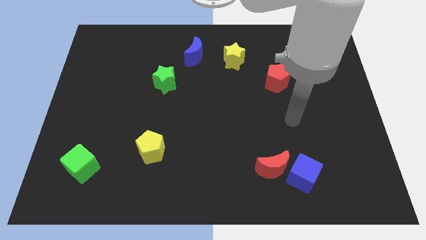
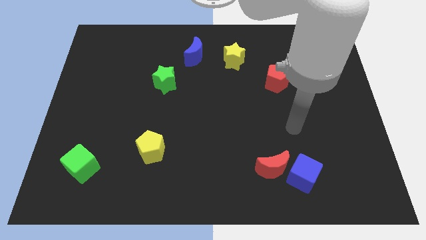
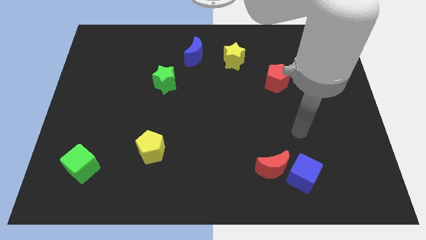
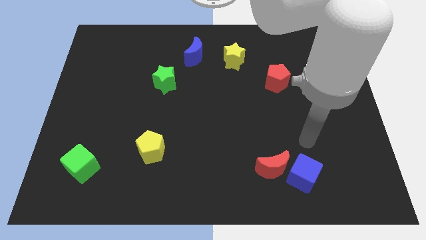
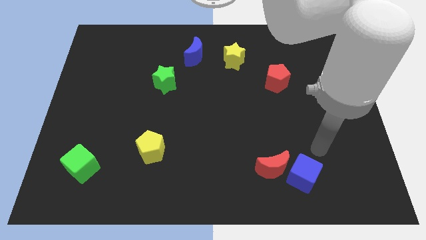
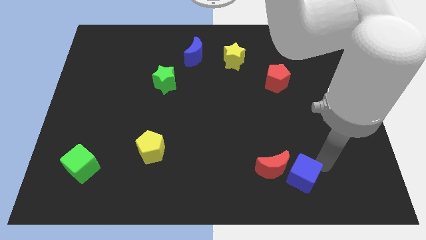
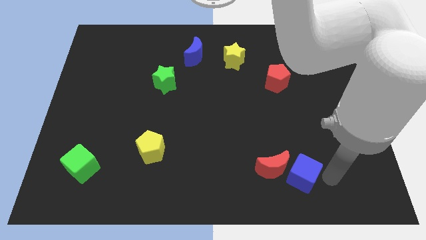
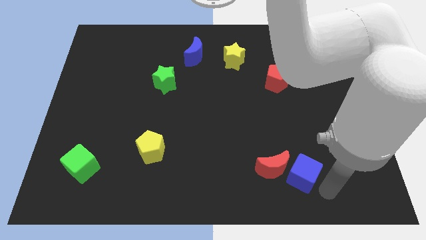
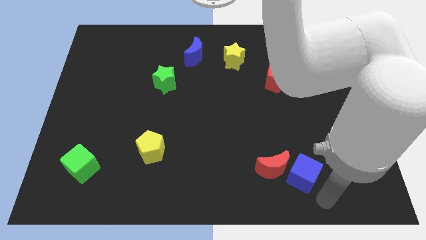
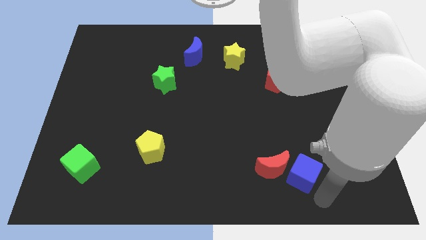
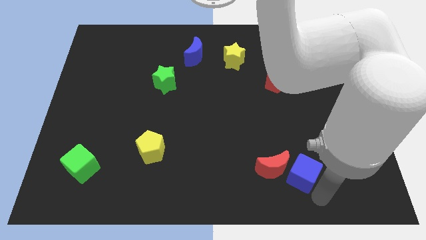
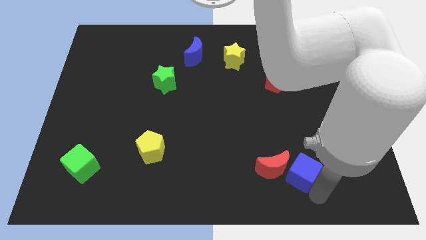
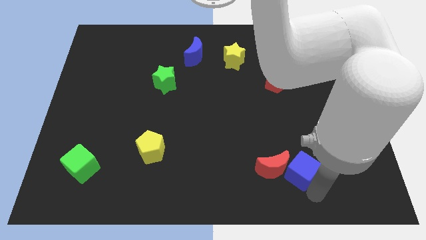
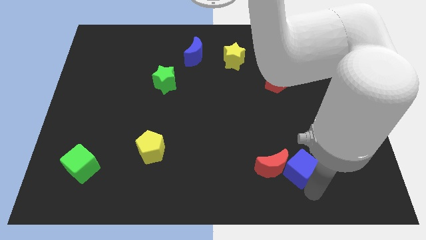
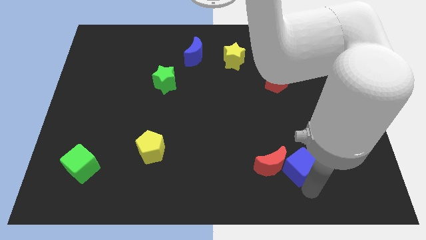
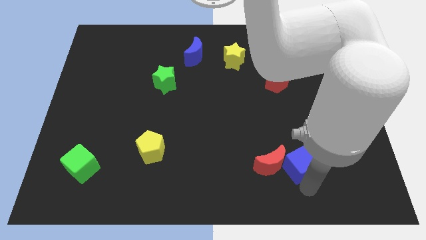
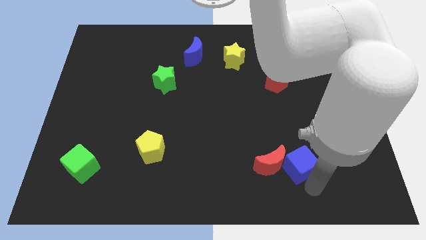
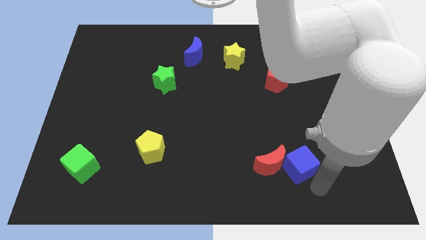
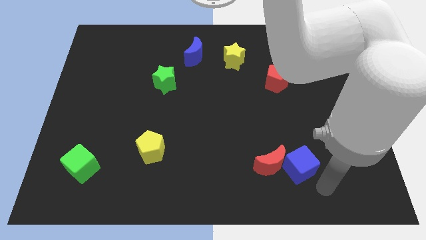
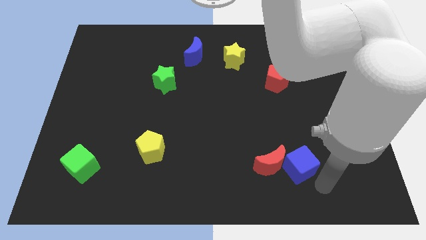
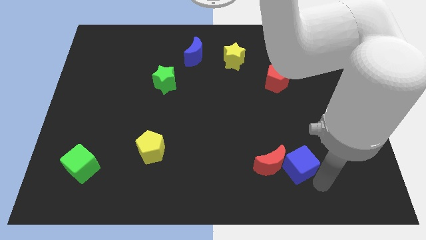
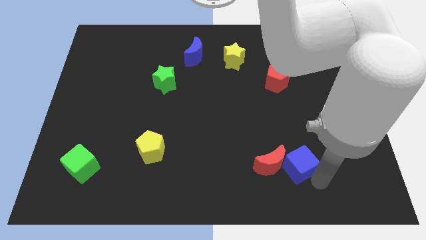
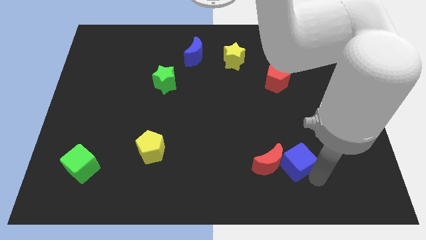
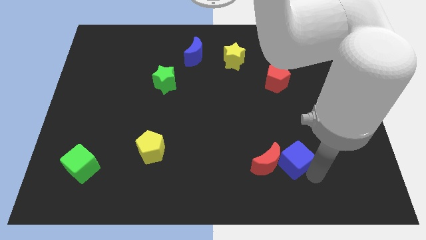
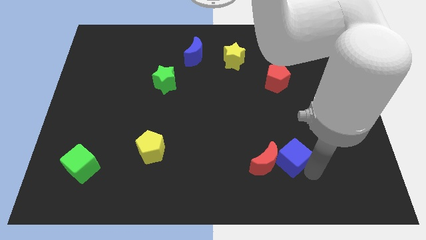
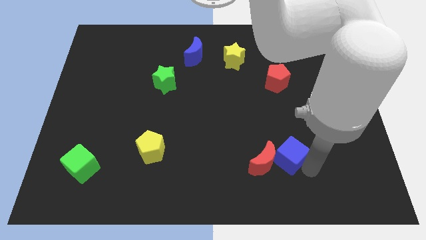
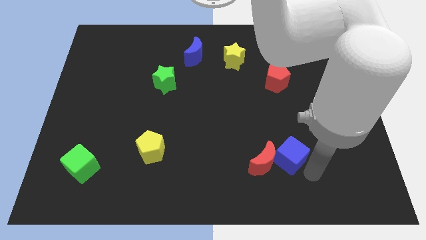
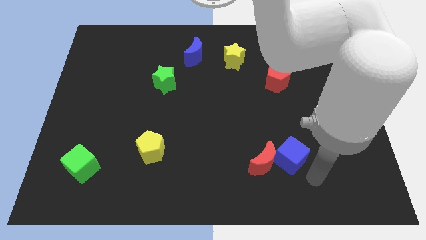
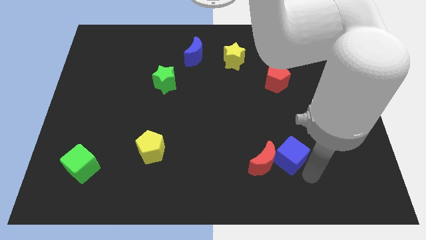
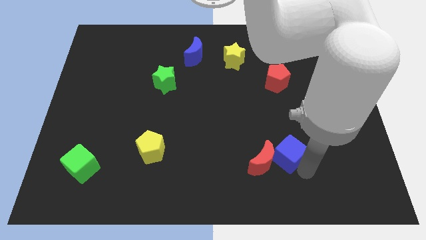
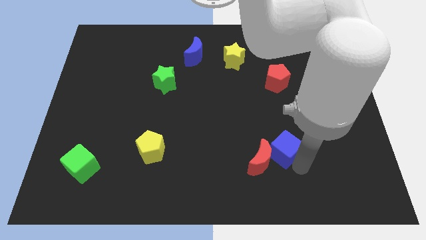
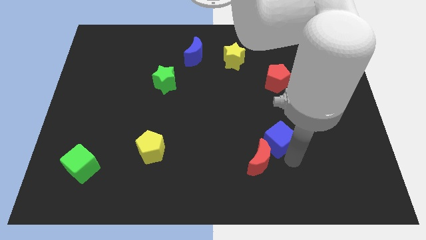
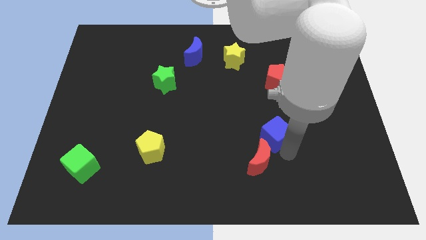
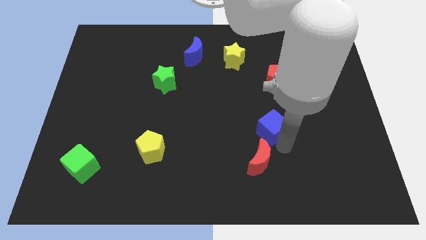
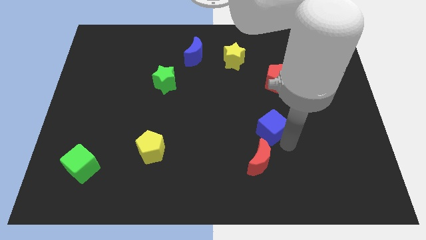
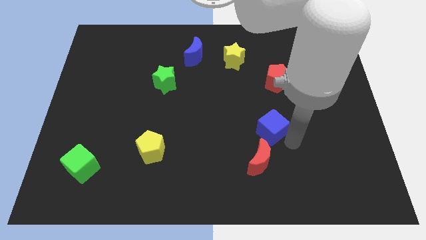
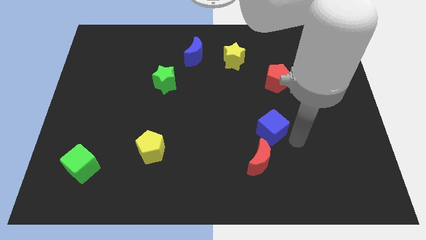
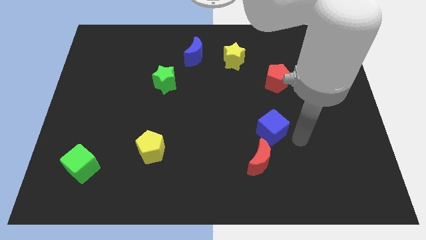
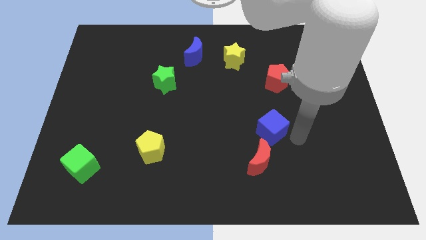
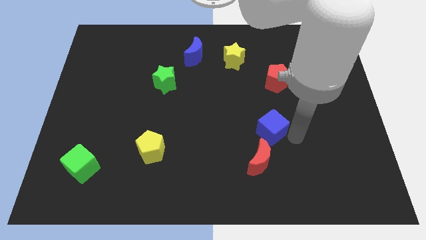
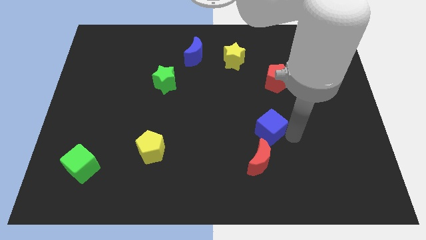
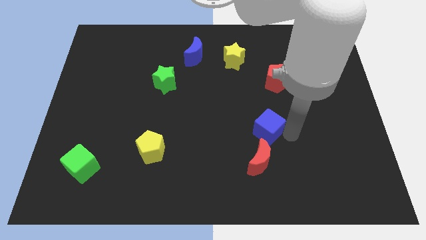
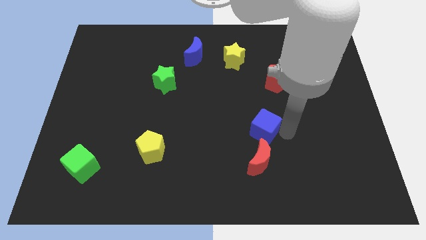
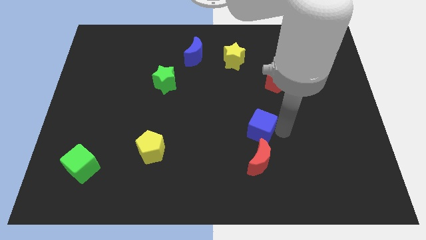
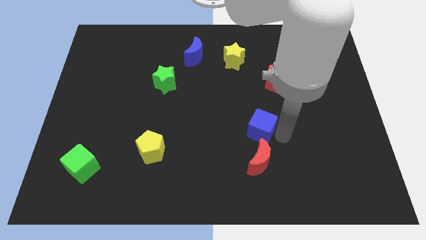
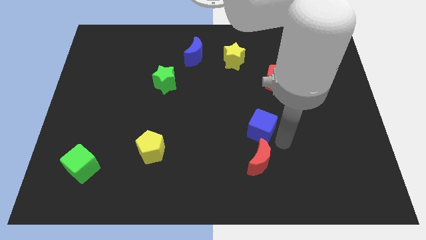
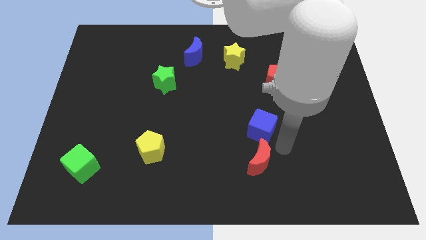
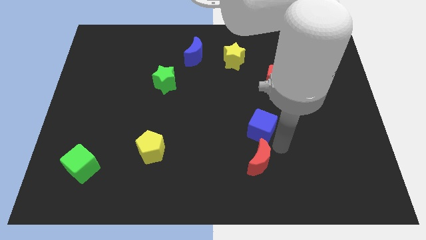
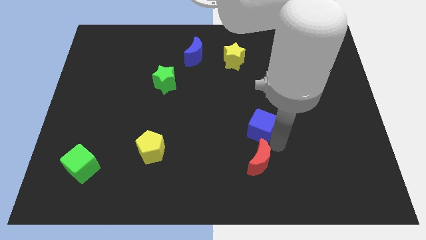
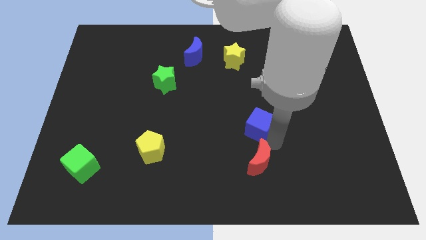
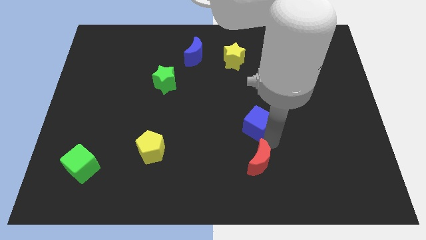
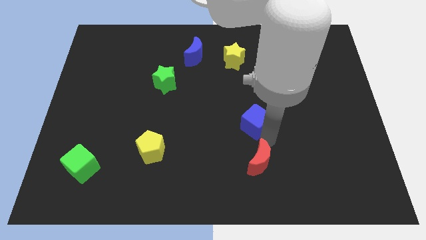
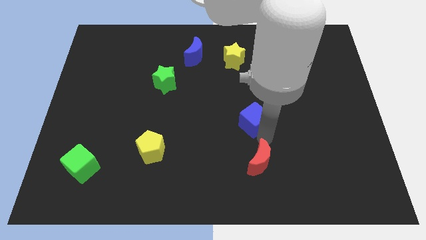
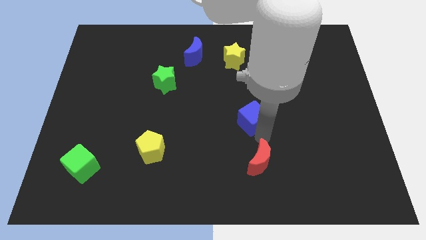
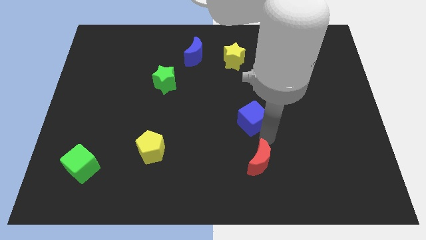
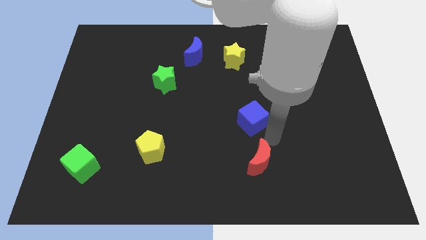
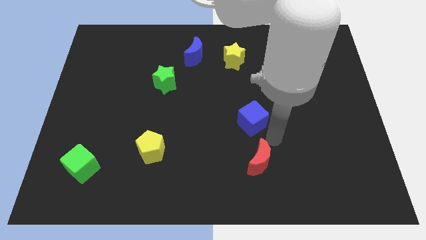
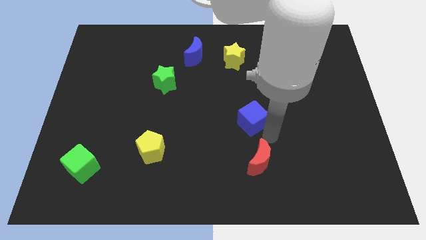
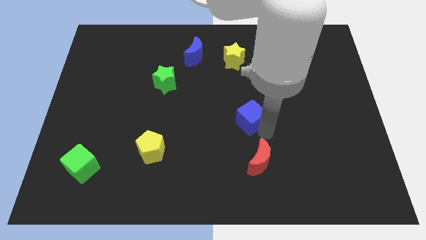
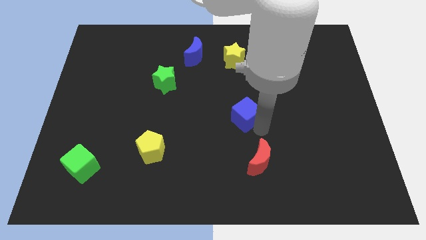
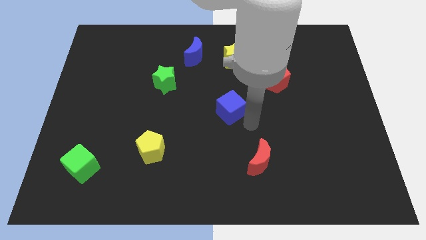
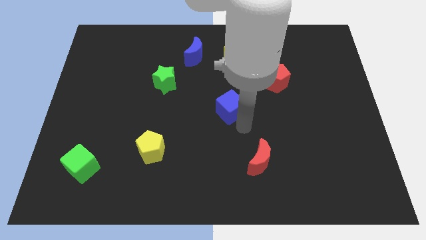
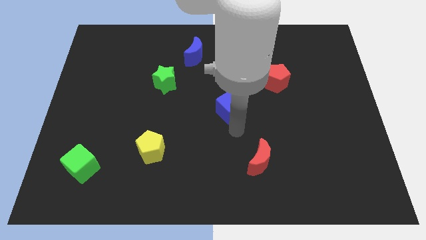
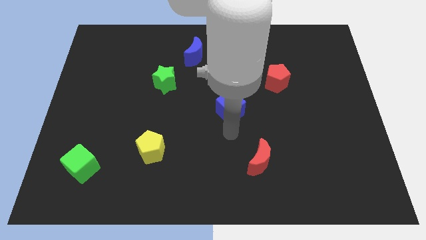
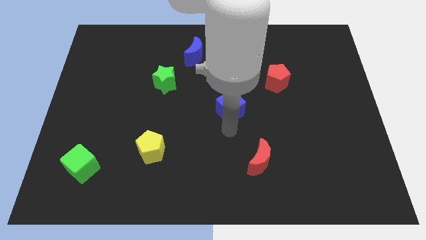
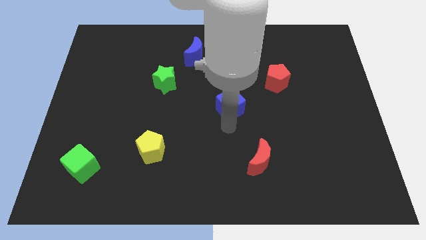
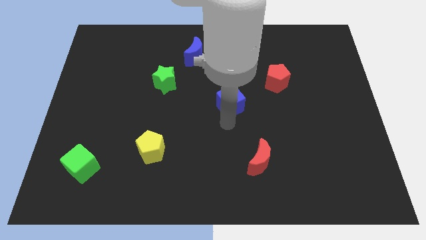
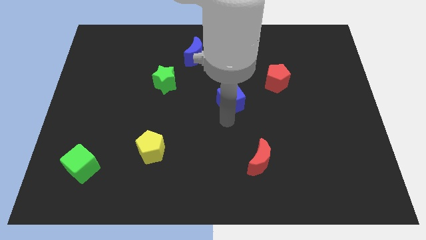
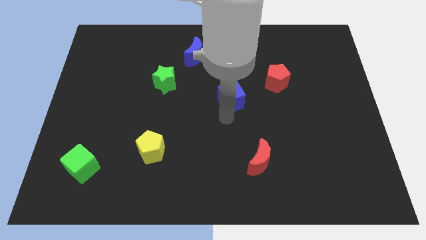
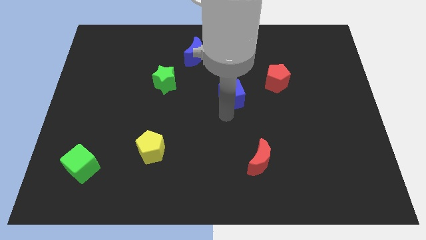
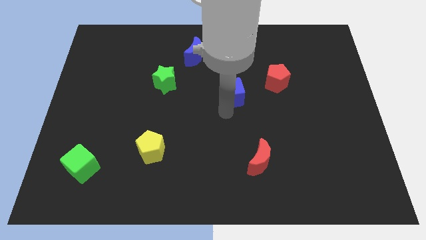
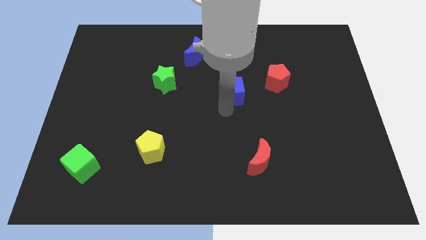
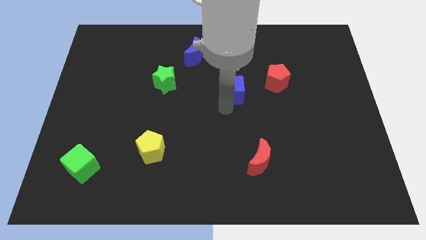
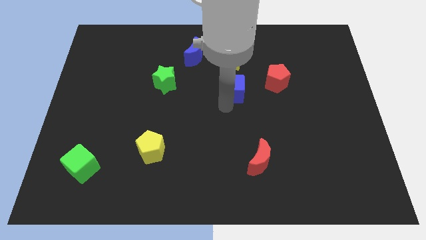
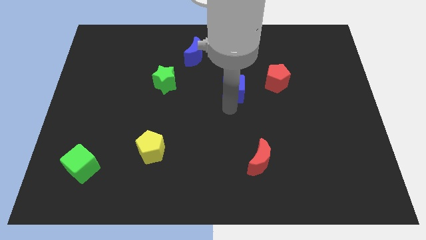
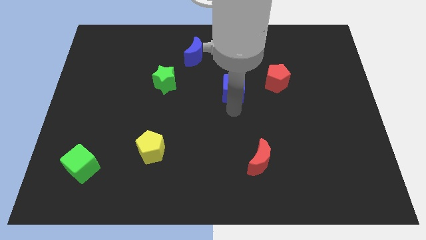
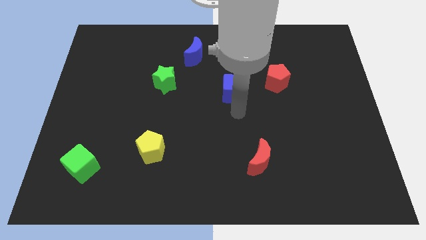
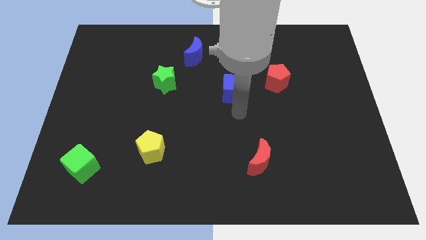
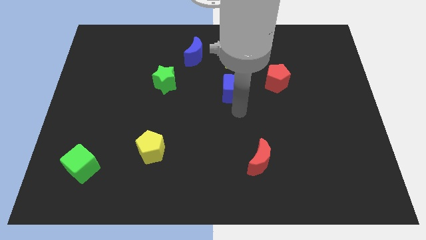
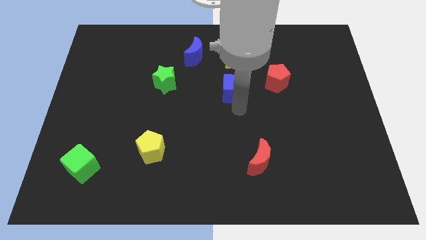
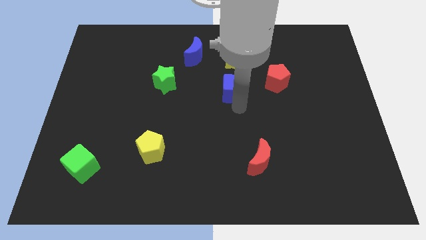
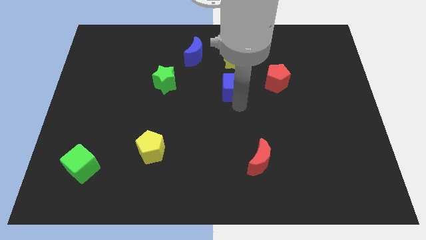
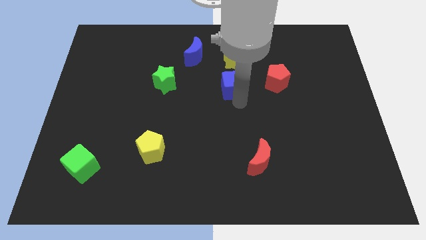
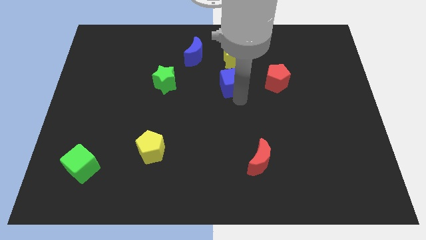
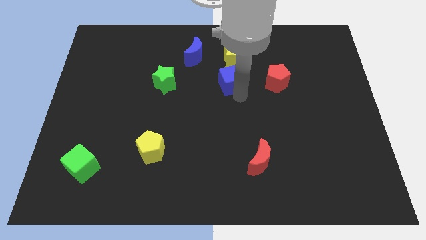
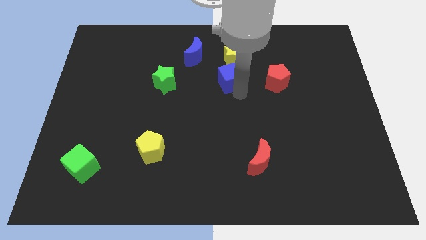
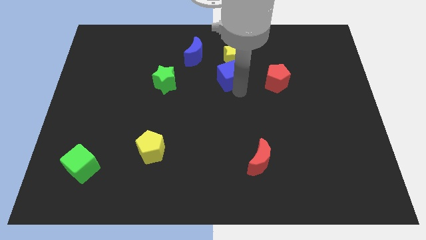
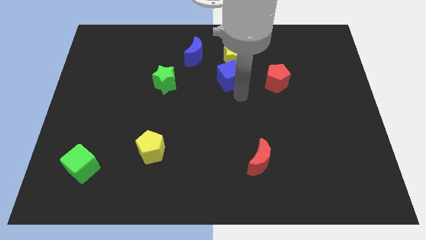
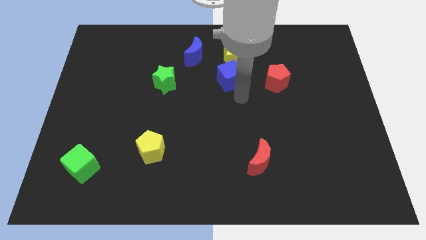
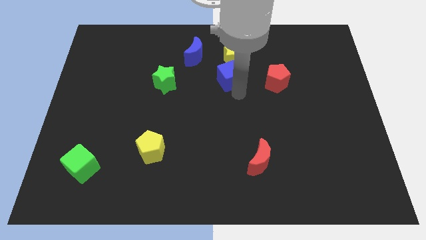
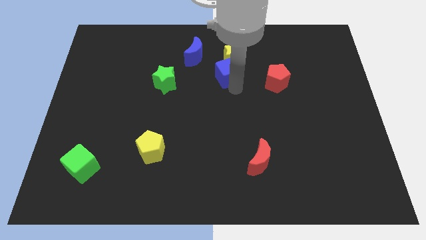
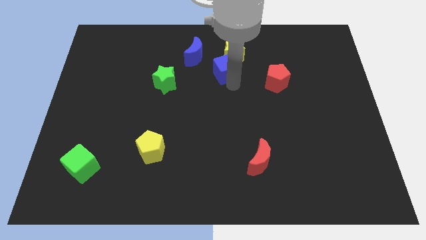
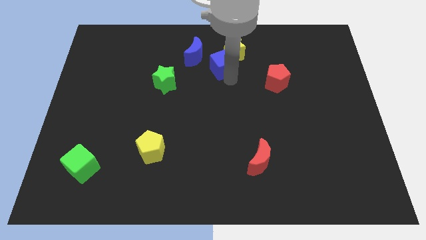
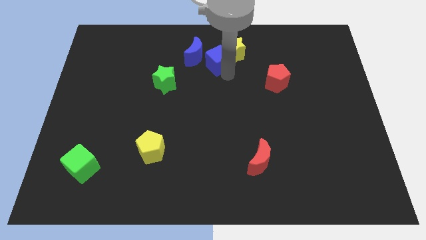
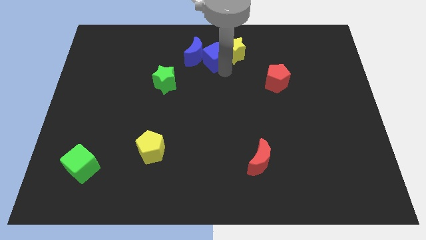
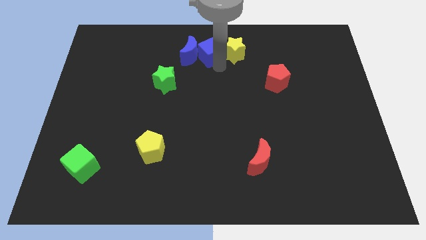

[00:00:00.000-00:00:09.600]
put the blue cube to the towards your base
